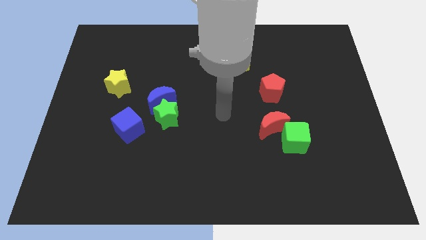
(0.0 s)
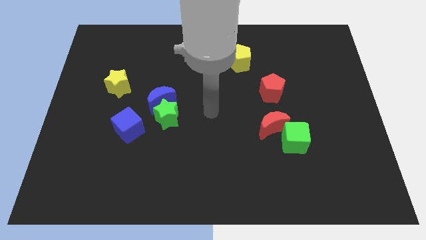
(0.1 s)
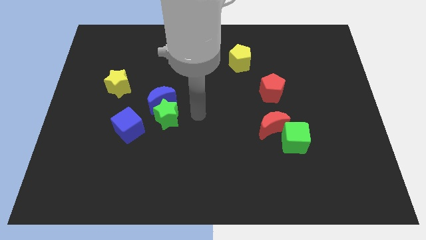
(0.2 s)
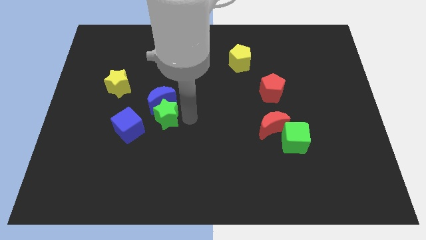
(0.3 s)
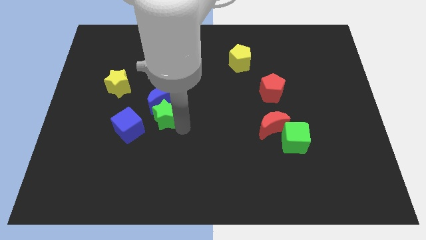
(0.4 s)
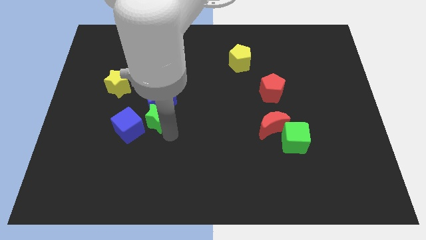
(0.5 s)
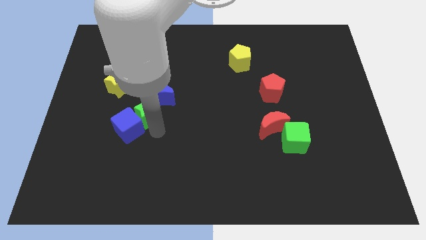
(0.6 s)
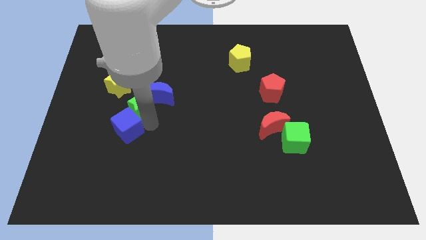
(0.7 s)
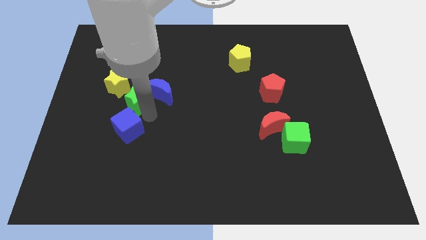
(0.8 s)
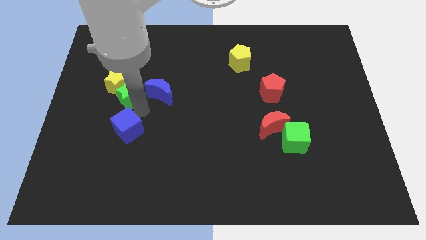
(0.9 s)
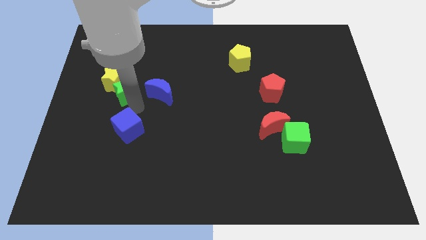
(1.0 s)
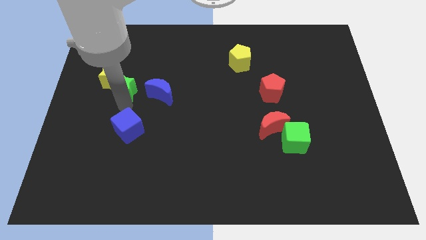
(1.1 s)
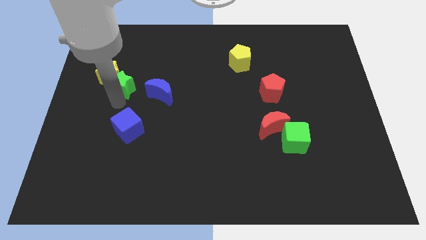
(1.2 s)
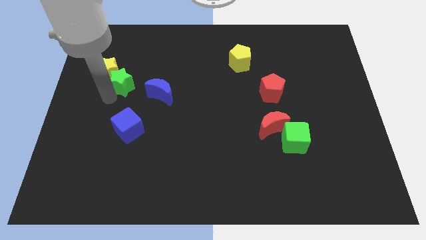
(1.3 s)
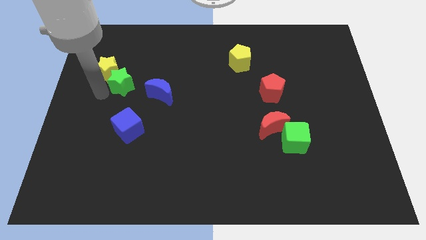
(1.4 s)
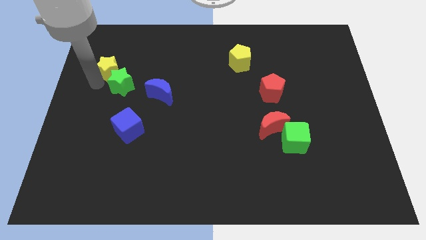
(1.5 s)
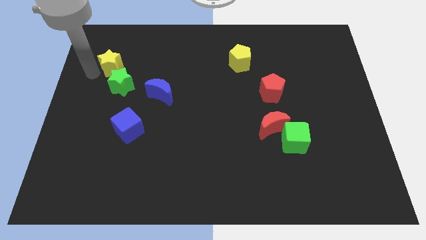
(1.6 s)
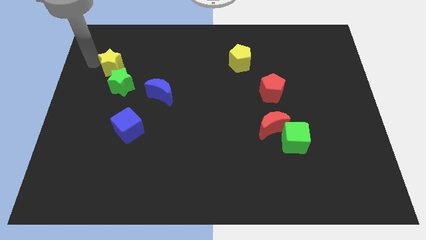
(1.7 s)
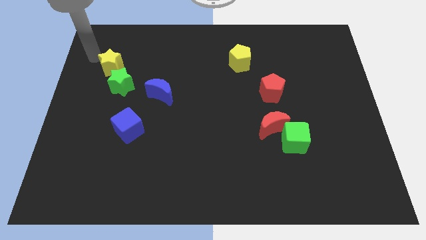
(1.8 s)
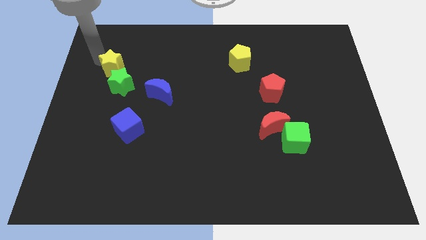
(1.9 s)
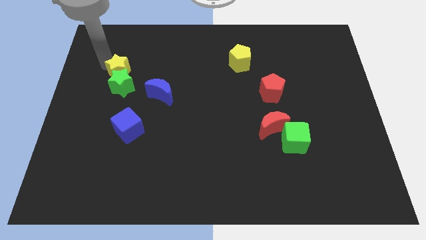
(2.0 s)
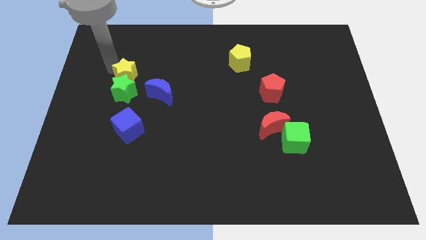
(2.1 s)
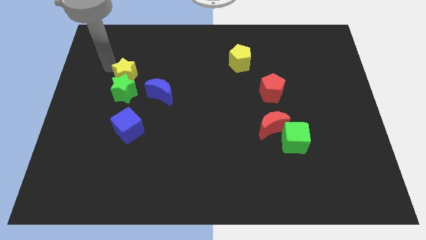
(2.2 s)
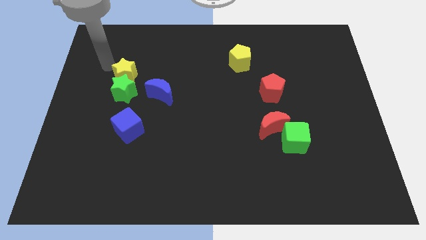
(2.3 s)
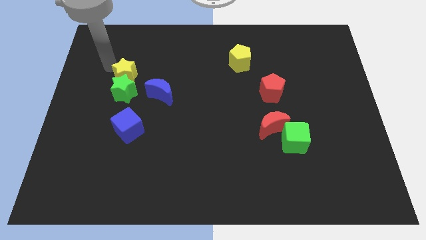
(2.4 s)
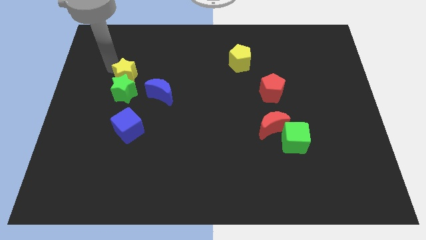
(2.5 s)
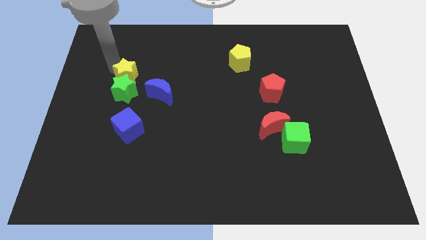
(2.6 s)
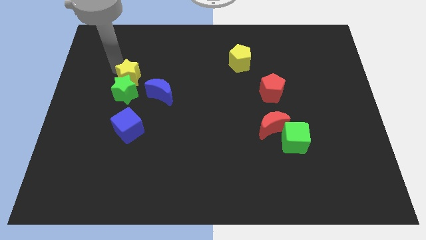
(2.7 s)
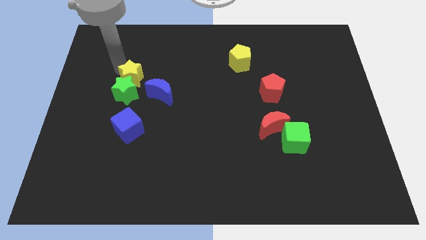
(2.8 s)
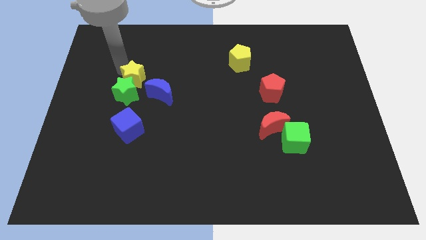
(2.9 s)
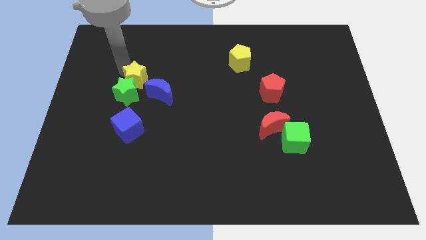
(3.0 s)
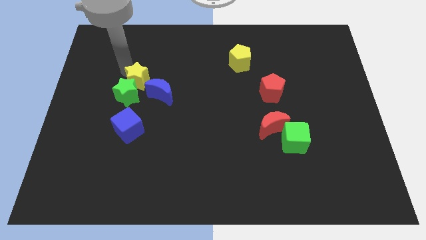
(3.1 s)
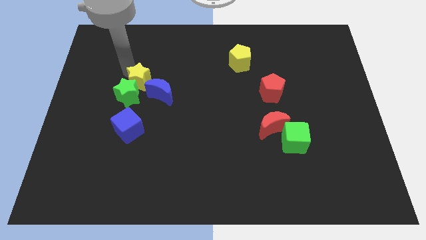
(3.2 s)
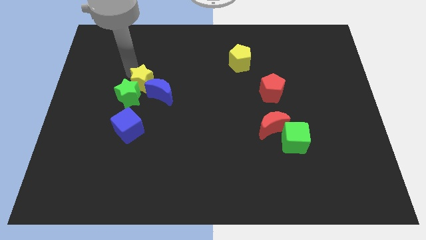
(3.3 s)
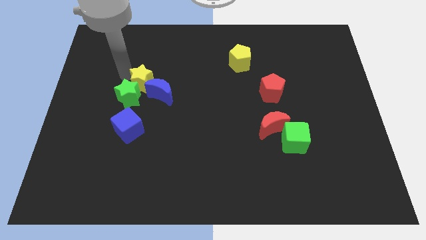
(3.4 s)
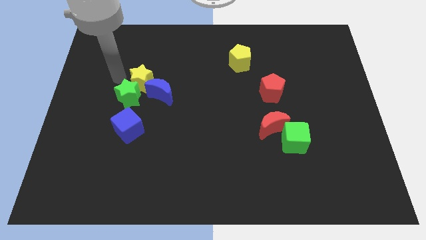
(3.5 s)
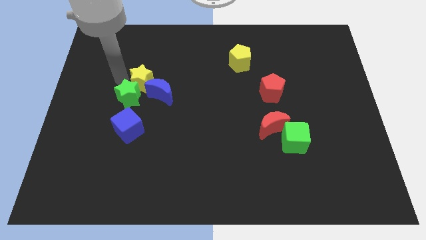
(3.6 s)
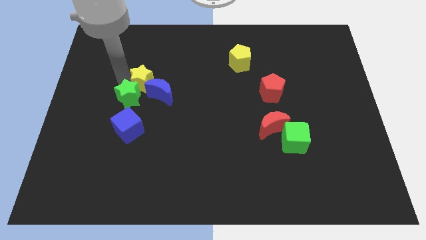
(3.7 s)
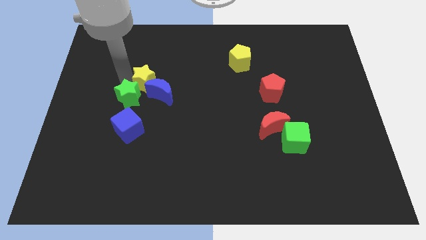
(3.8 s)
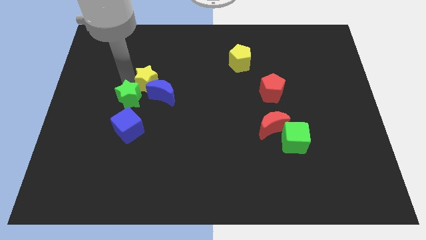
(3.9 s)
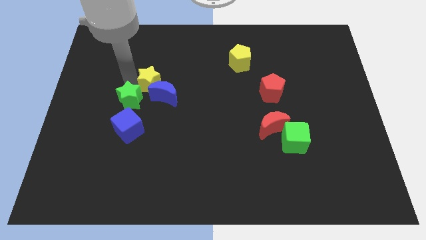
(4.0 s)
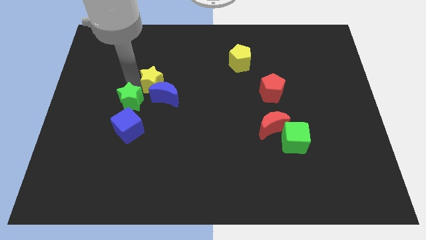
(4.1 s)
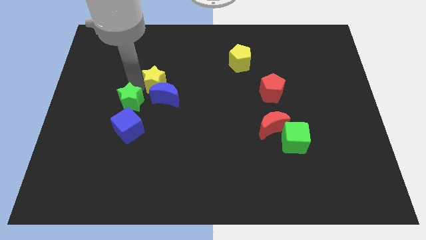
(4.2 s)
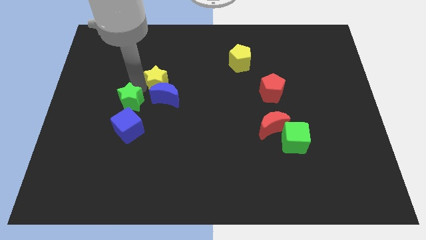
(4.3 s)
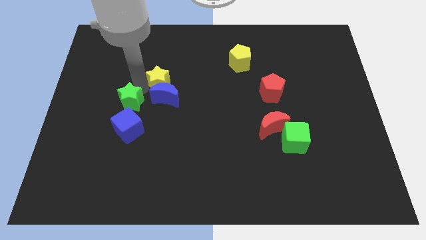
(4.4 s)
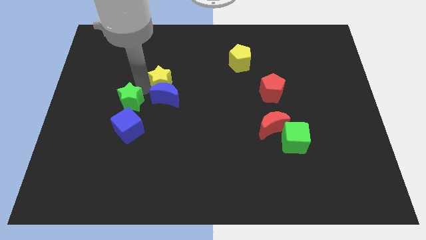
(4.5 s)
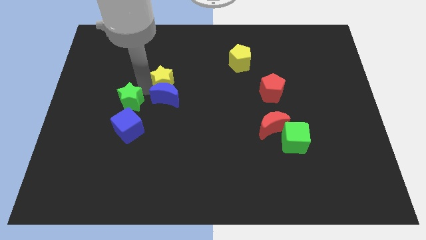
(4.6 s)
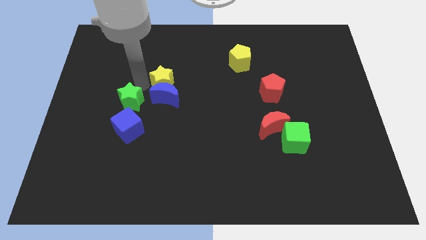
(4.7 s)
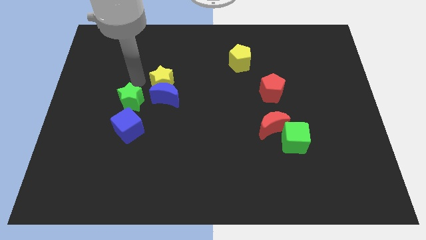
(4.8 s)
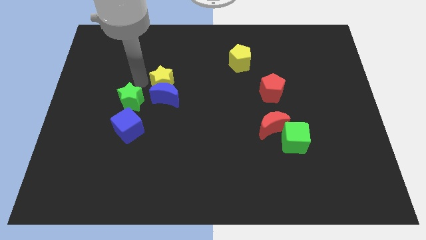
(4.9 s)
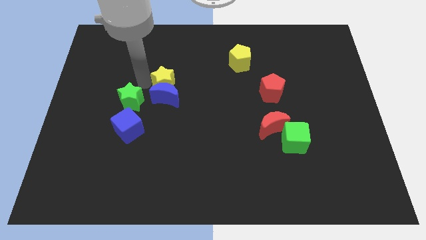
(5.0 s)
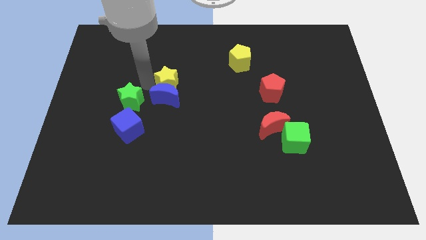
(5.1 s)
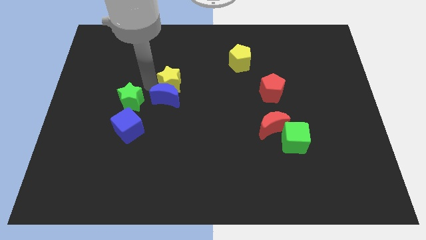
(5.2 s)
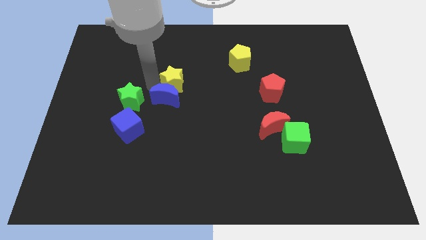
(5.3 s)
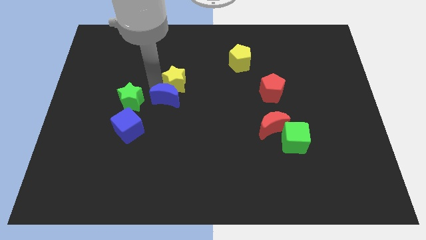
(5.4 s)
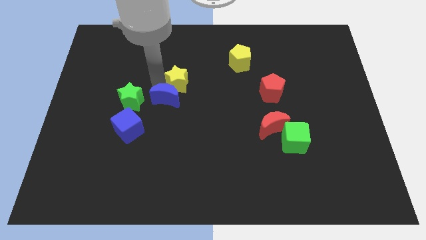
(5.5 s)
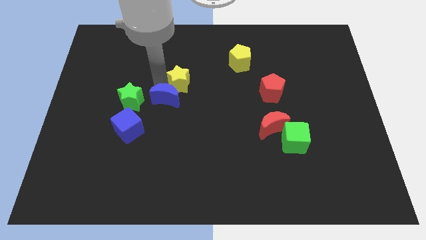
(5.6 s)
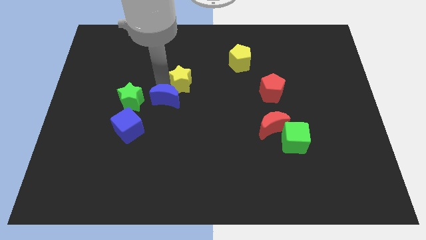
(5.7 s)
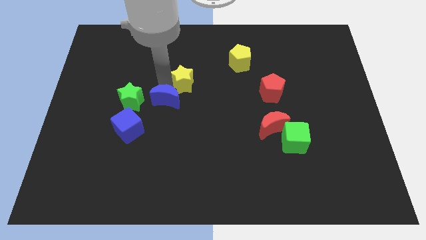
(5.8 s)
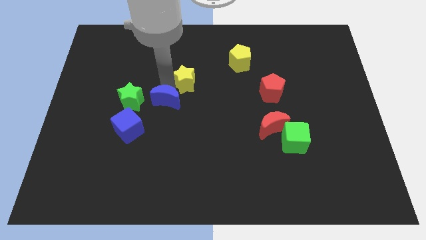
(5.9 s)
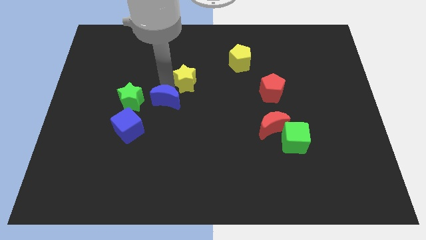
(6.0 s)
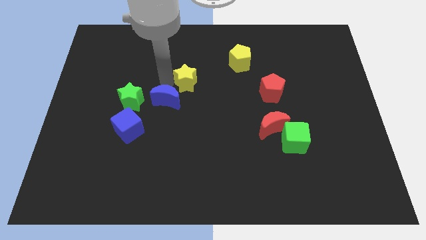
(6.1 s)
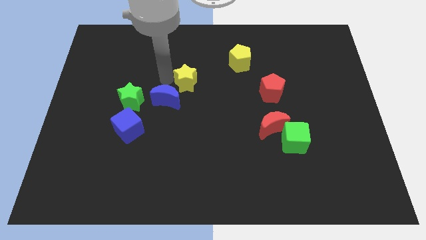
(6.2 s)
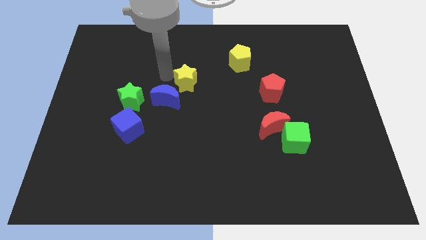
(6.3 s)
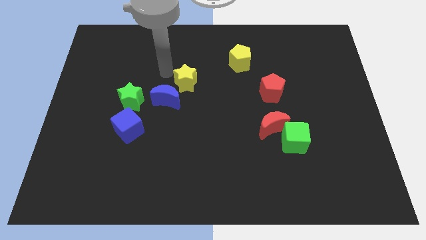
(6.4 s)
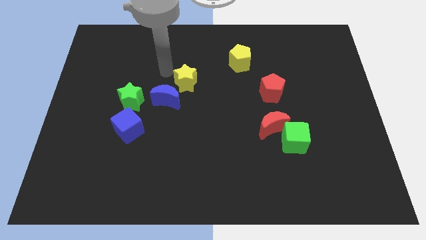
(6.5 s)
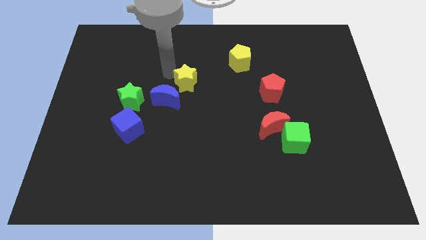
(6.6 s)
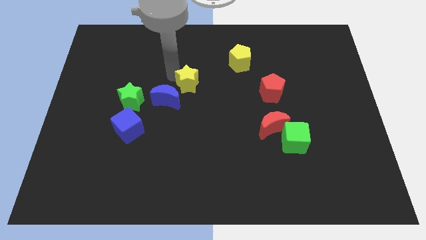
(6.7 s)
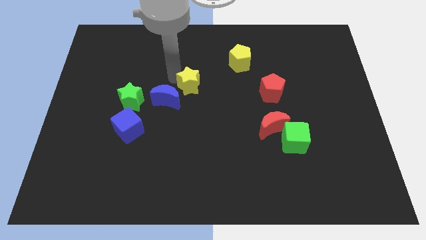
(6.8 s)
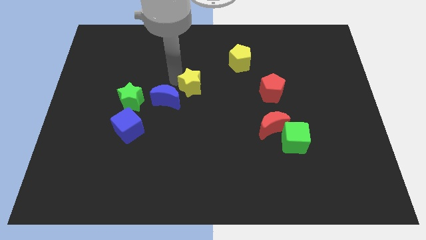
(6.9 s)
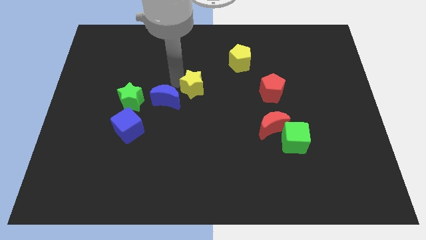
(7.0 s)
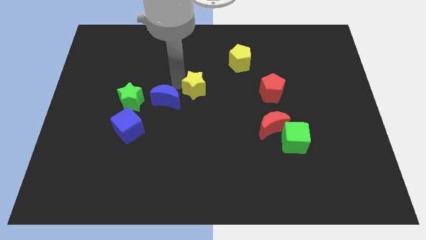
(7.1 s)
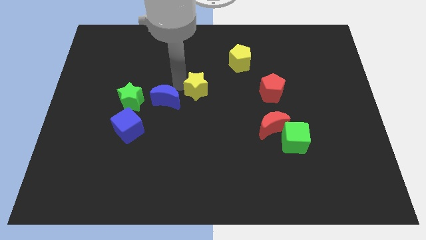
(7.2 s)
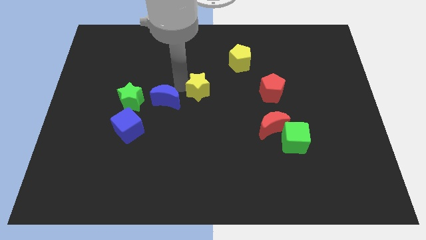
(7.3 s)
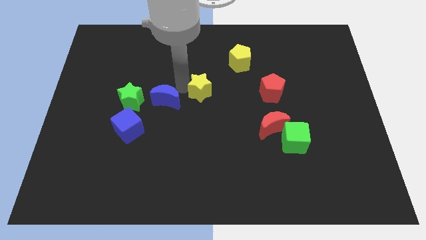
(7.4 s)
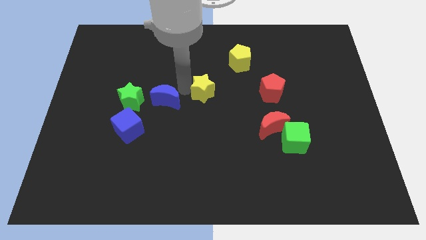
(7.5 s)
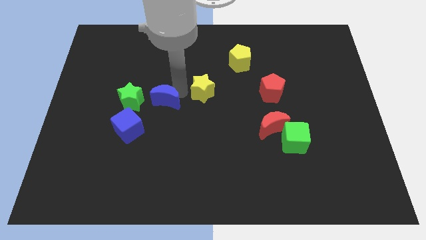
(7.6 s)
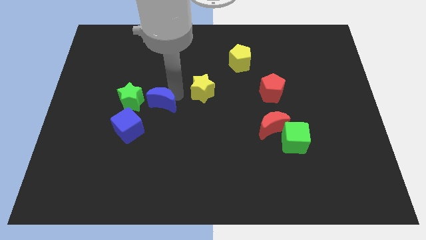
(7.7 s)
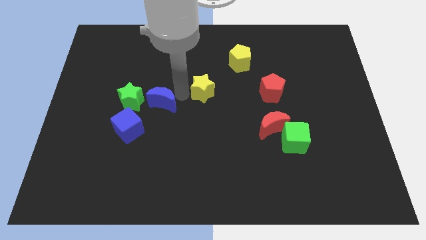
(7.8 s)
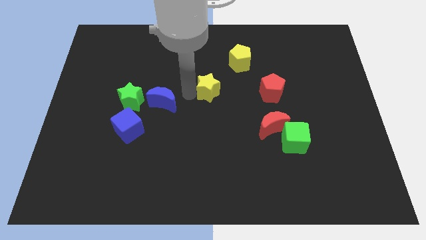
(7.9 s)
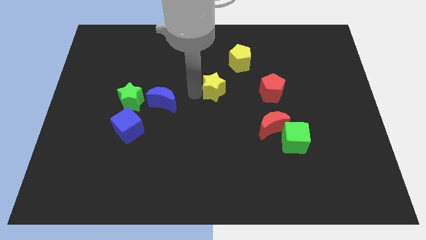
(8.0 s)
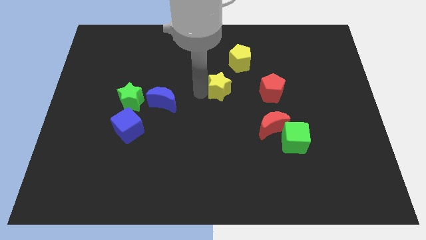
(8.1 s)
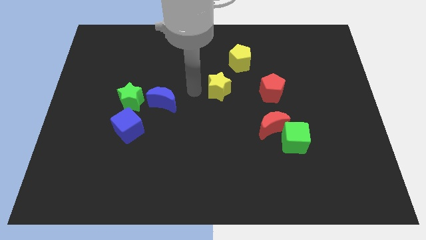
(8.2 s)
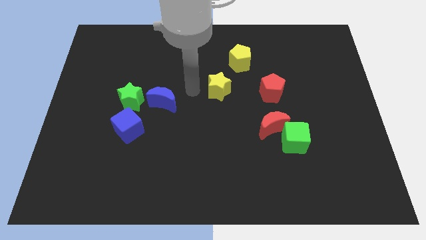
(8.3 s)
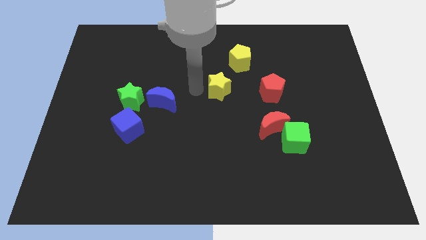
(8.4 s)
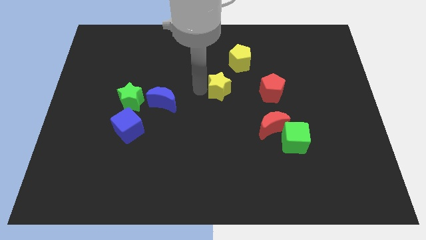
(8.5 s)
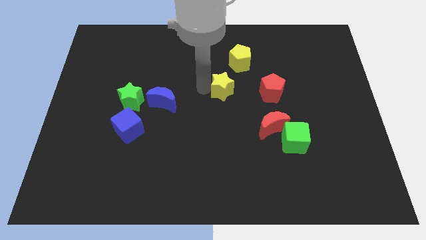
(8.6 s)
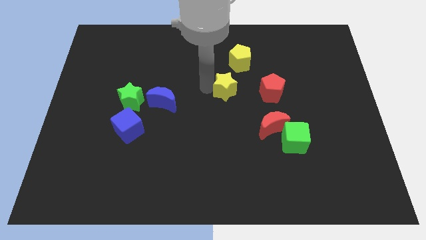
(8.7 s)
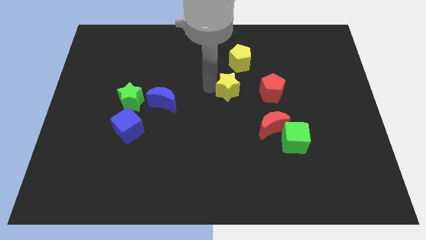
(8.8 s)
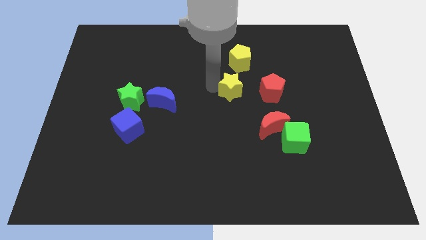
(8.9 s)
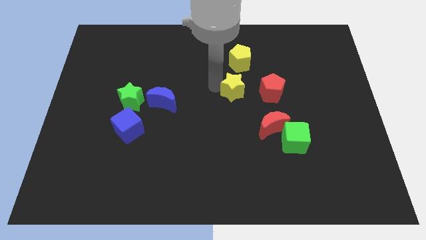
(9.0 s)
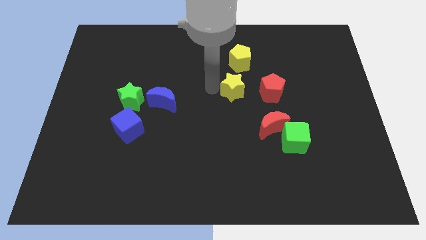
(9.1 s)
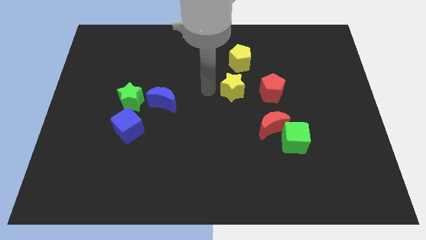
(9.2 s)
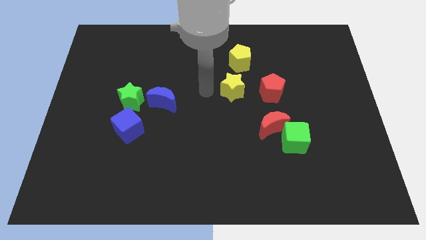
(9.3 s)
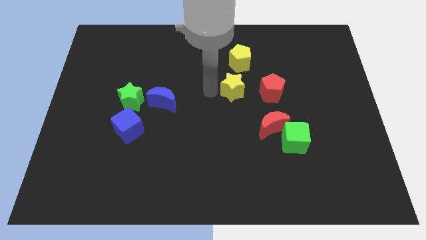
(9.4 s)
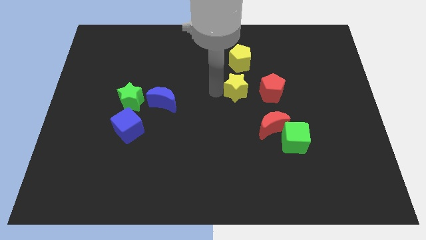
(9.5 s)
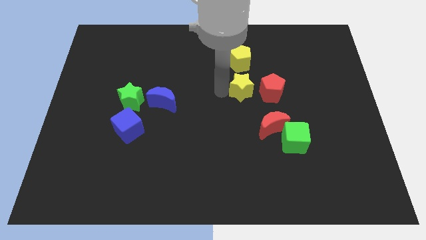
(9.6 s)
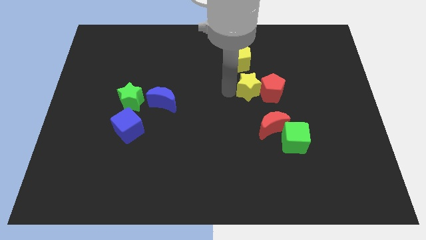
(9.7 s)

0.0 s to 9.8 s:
move the yellow star close to the red pentagon
